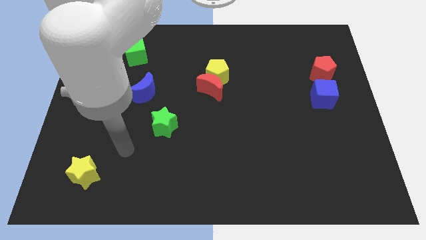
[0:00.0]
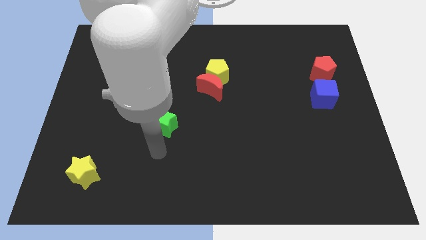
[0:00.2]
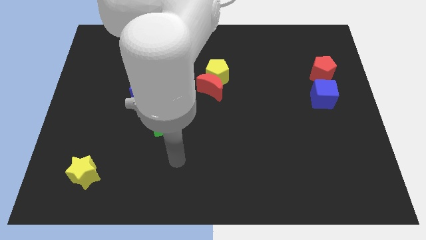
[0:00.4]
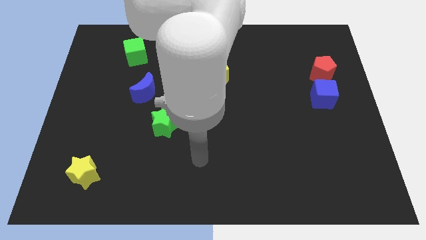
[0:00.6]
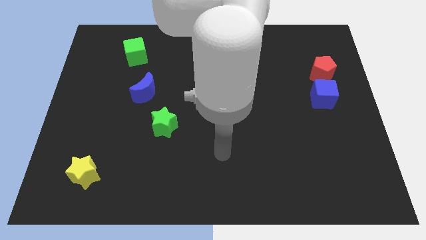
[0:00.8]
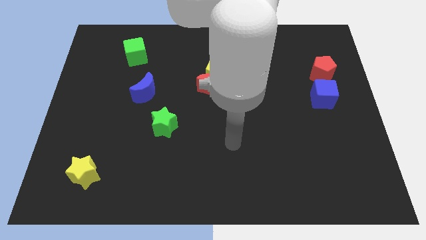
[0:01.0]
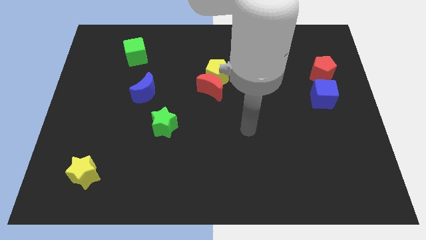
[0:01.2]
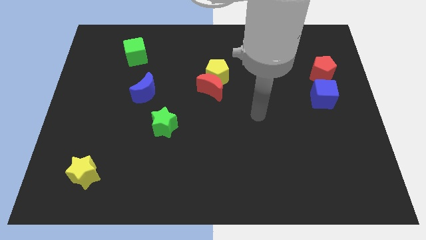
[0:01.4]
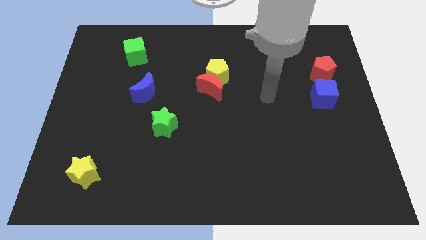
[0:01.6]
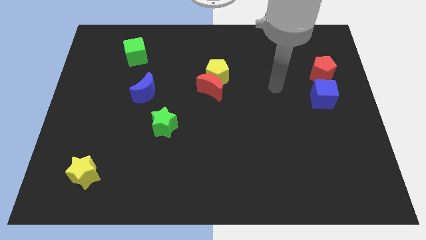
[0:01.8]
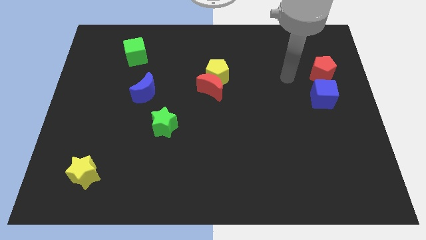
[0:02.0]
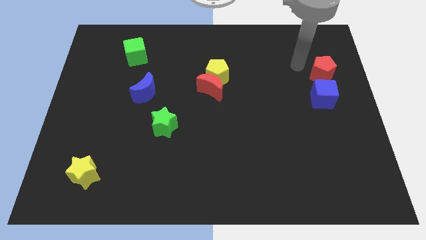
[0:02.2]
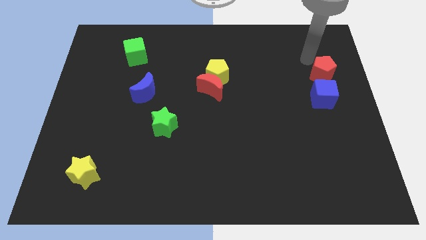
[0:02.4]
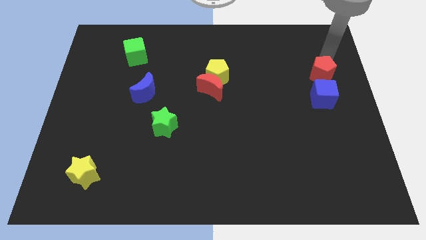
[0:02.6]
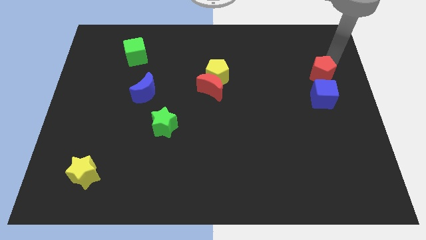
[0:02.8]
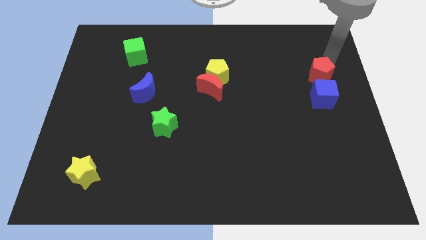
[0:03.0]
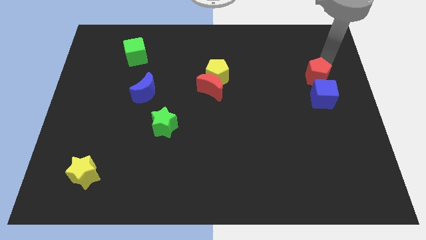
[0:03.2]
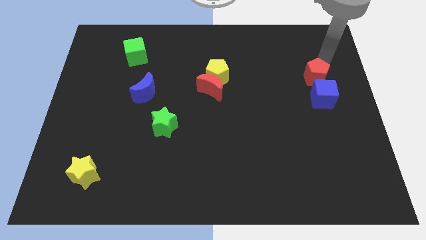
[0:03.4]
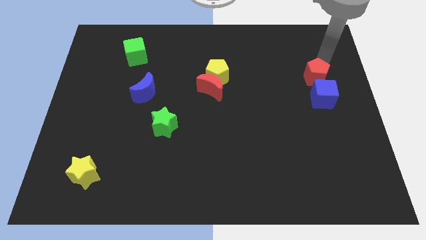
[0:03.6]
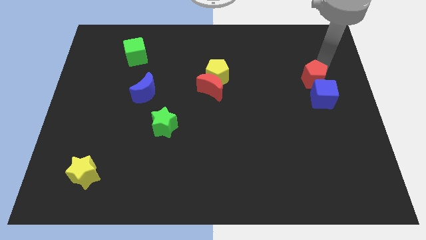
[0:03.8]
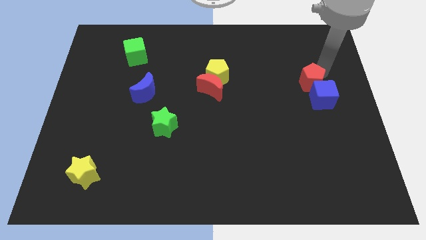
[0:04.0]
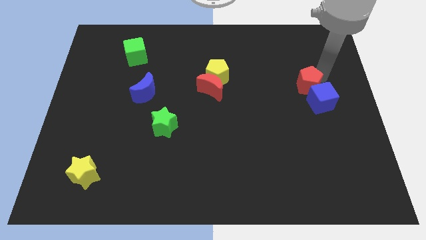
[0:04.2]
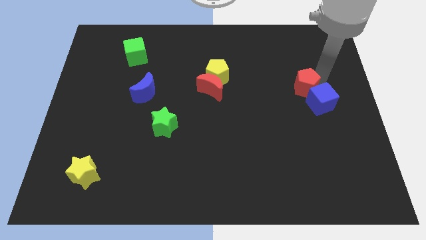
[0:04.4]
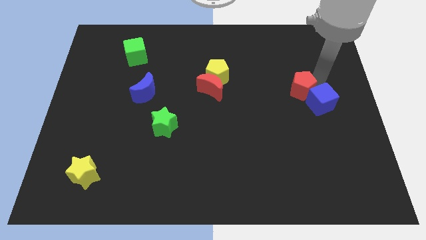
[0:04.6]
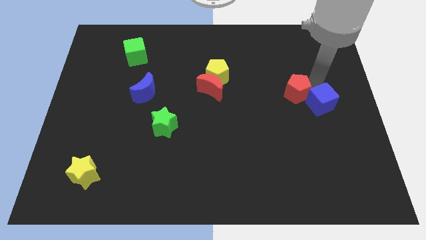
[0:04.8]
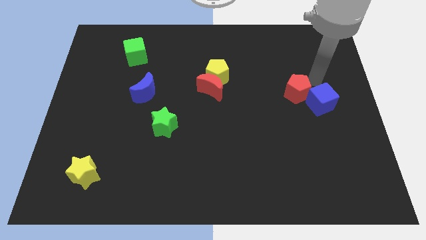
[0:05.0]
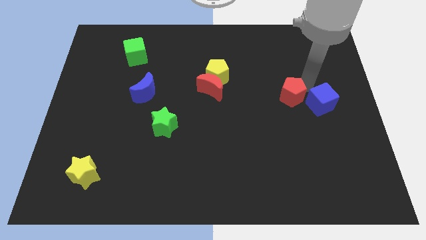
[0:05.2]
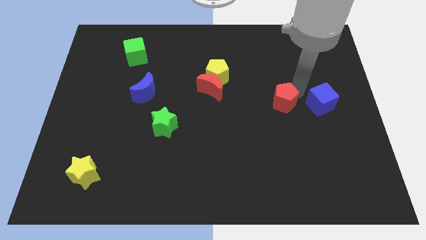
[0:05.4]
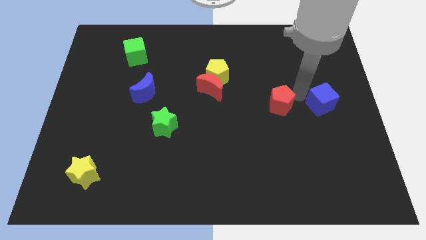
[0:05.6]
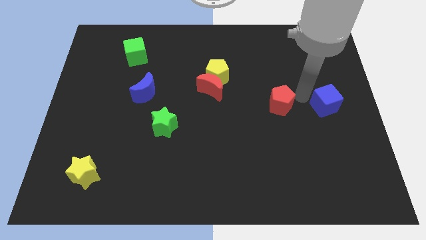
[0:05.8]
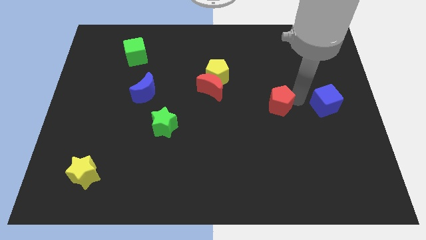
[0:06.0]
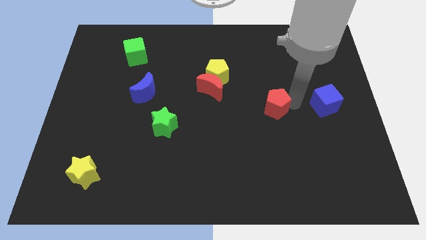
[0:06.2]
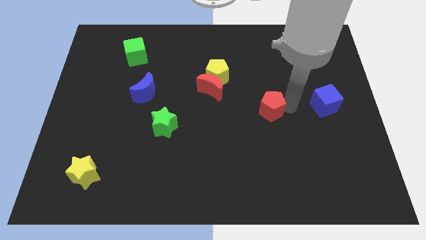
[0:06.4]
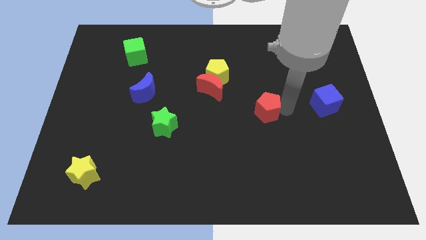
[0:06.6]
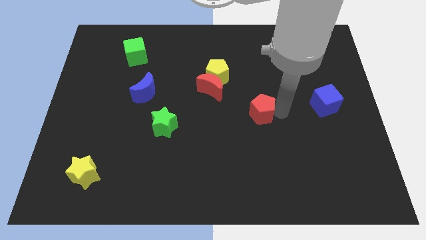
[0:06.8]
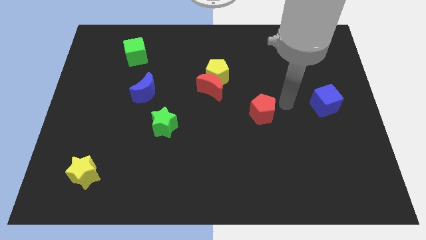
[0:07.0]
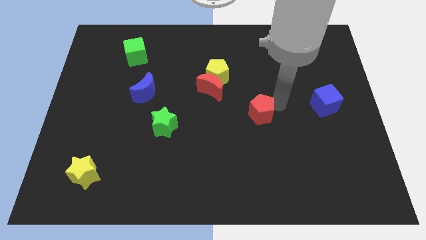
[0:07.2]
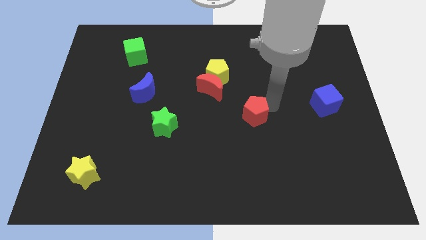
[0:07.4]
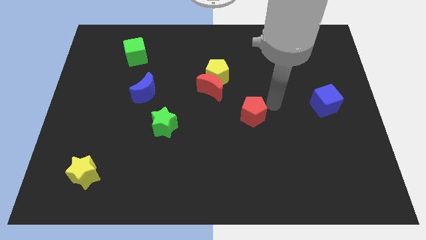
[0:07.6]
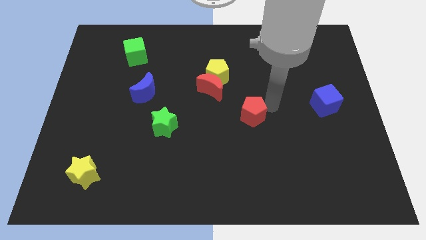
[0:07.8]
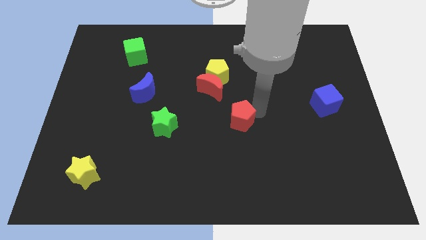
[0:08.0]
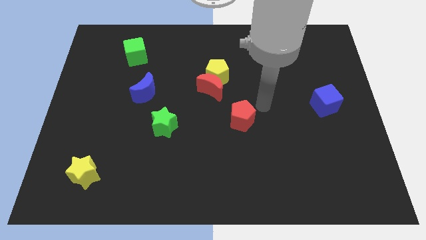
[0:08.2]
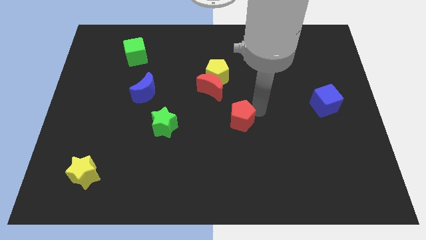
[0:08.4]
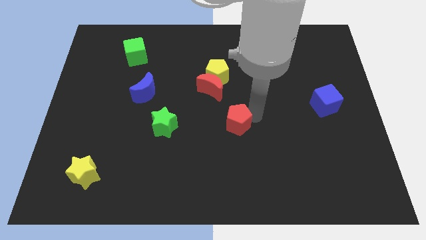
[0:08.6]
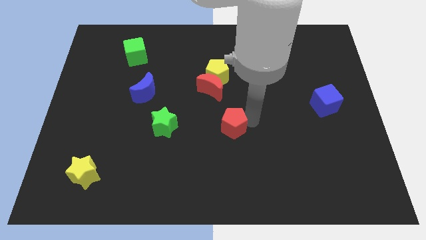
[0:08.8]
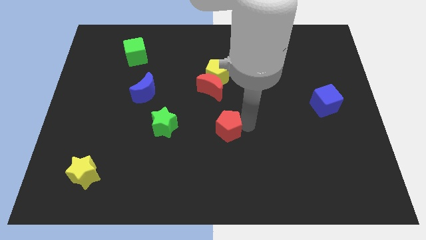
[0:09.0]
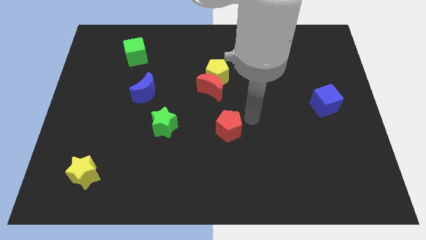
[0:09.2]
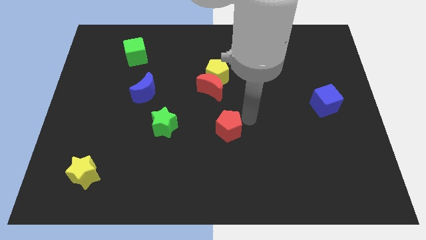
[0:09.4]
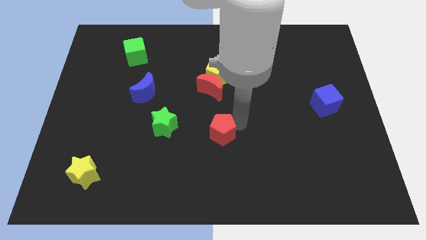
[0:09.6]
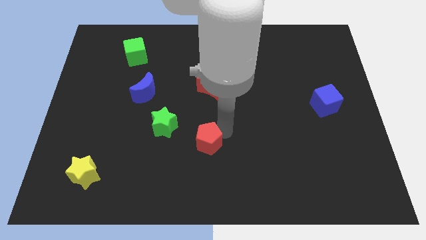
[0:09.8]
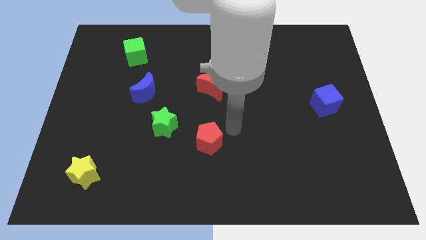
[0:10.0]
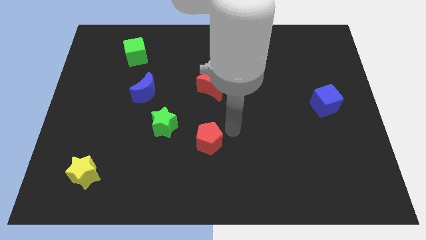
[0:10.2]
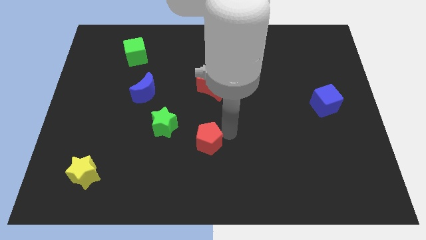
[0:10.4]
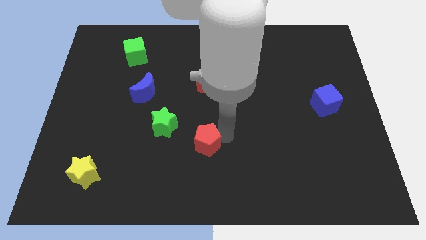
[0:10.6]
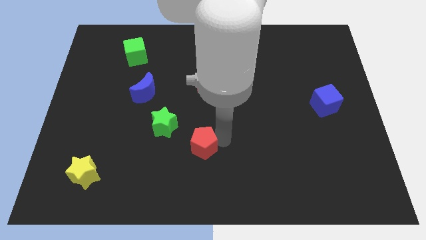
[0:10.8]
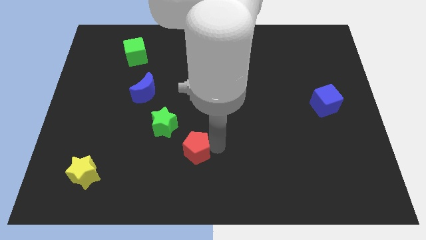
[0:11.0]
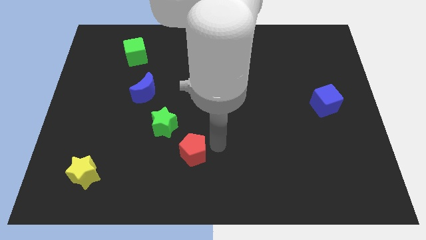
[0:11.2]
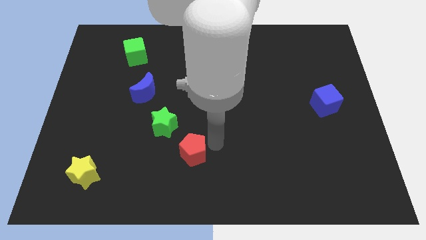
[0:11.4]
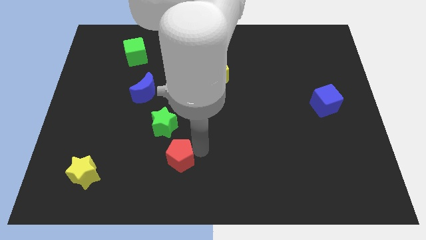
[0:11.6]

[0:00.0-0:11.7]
put the red pentagon to the bottom side of the green star

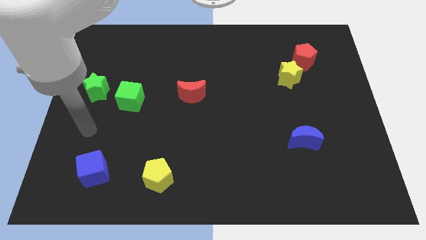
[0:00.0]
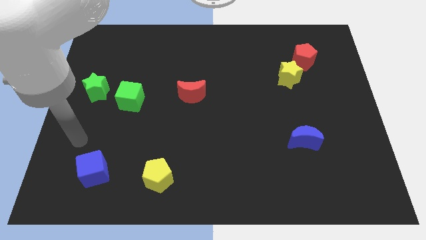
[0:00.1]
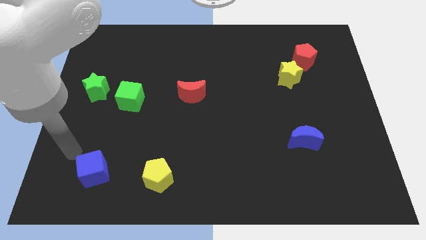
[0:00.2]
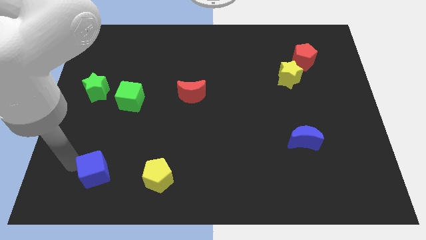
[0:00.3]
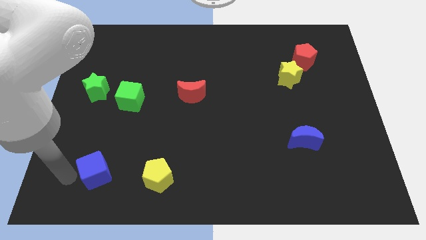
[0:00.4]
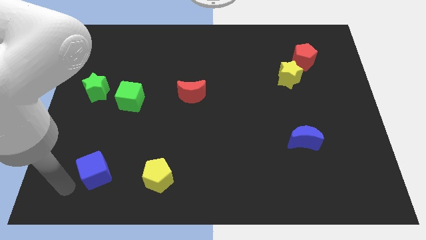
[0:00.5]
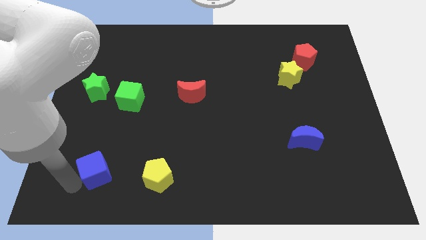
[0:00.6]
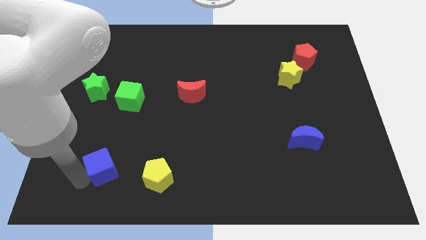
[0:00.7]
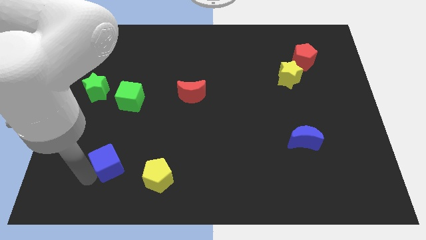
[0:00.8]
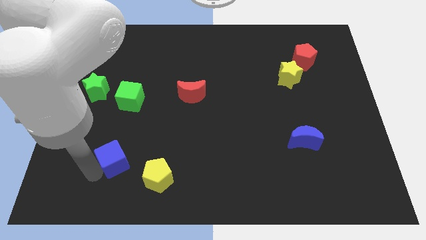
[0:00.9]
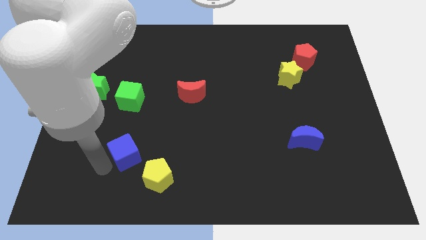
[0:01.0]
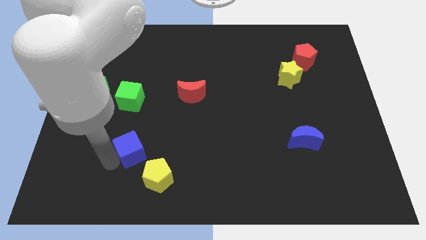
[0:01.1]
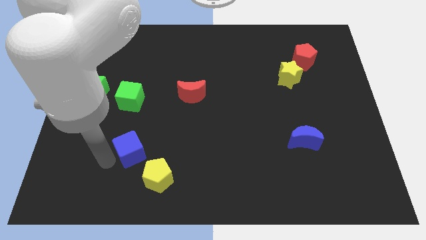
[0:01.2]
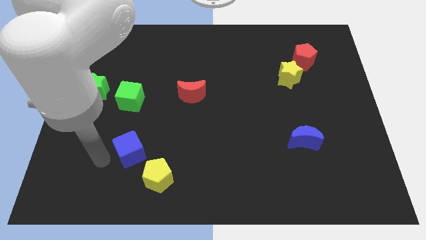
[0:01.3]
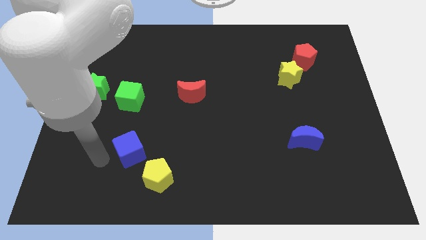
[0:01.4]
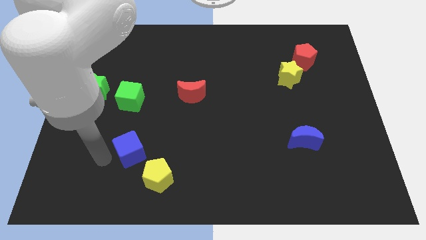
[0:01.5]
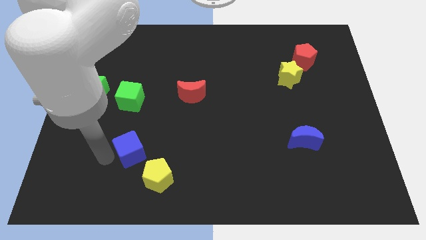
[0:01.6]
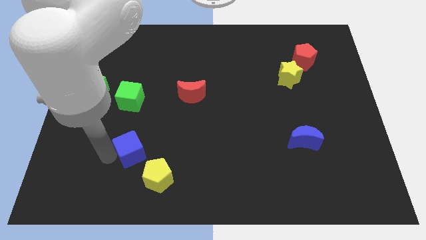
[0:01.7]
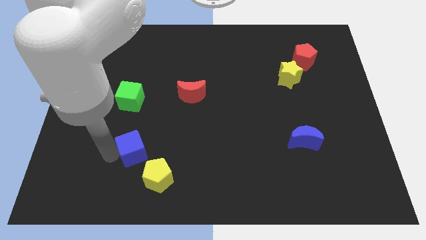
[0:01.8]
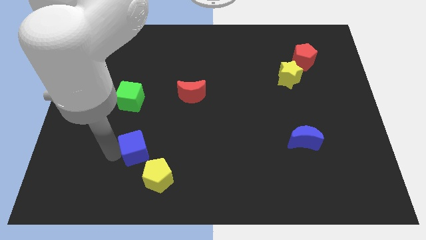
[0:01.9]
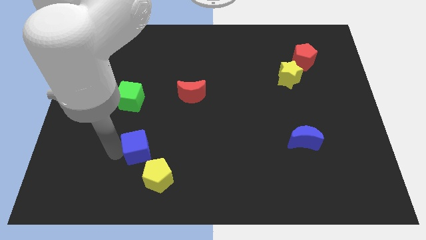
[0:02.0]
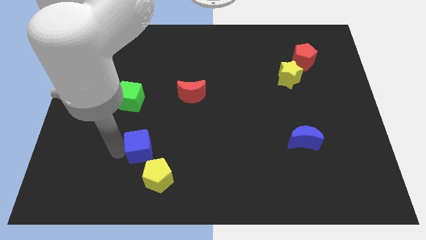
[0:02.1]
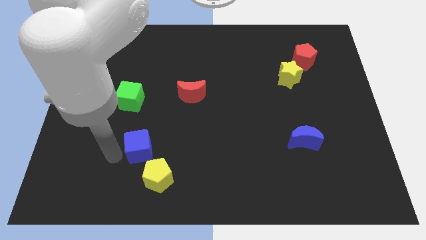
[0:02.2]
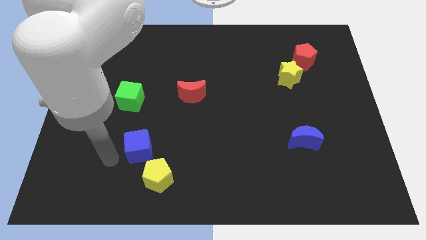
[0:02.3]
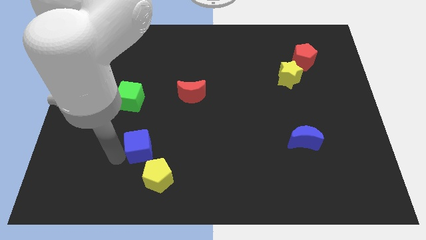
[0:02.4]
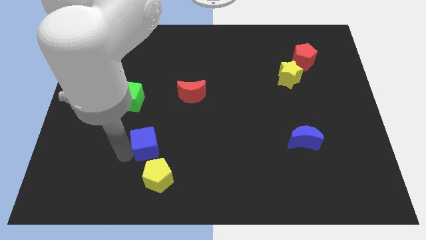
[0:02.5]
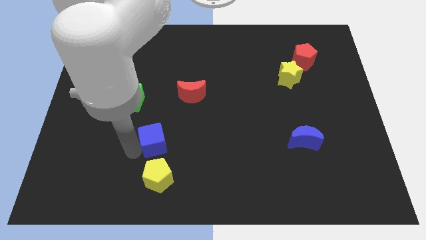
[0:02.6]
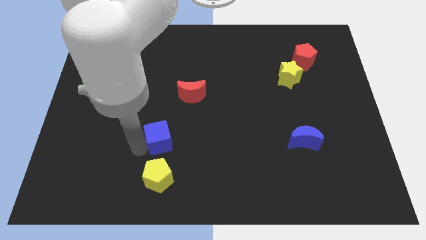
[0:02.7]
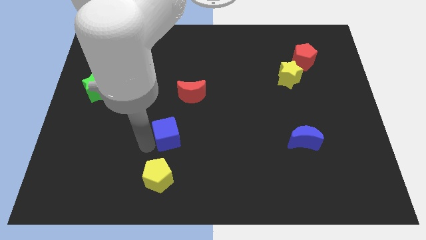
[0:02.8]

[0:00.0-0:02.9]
slide the blue cube to the bottom side of the red moon
